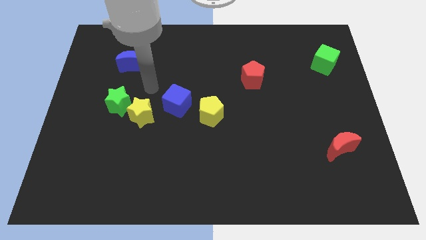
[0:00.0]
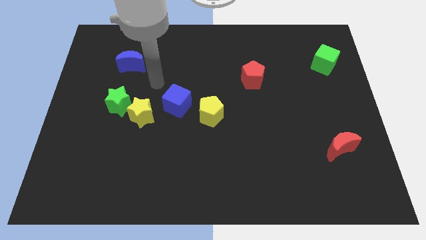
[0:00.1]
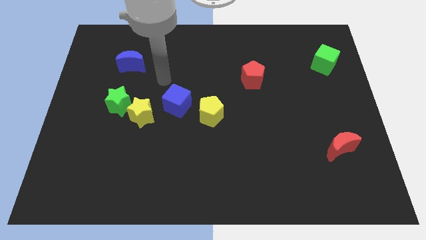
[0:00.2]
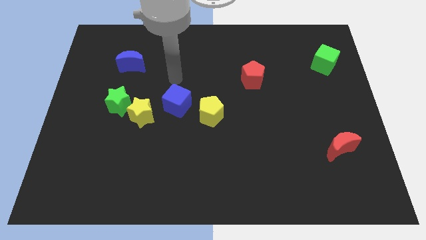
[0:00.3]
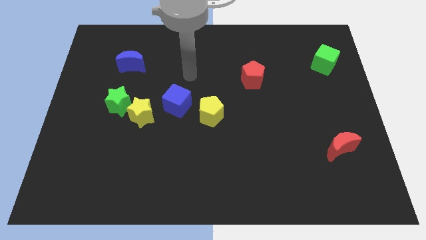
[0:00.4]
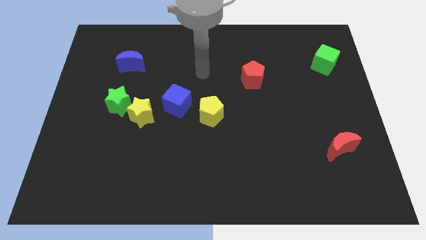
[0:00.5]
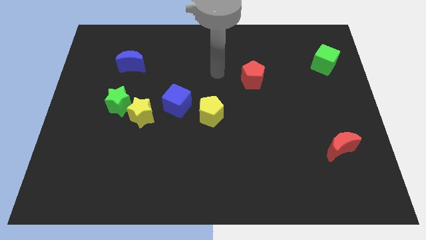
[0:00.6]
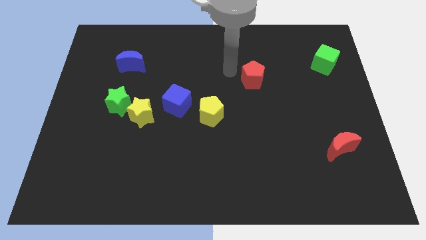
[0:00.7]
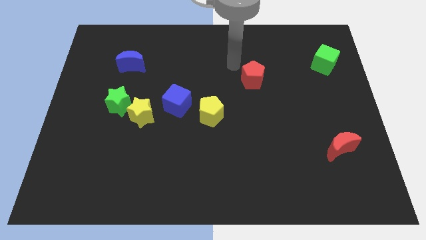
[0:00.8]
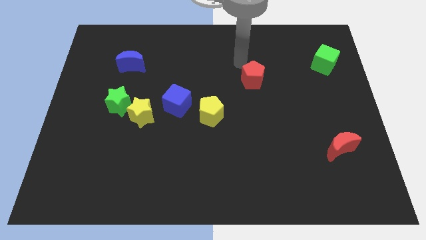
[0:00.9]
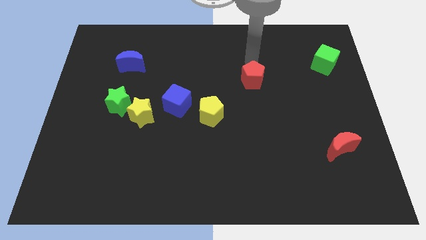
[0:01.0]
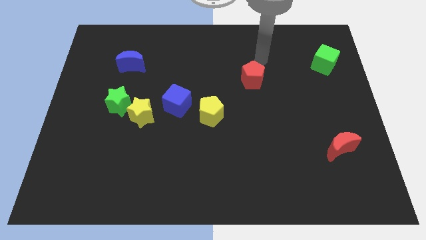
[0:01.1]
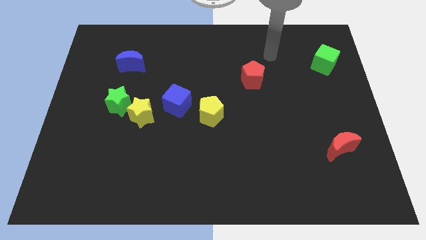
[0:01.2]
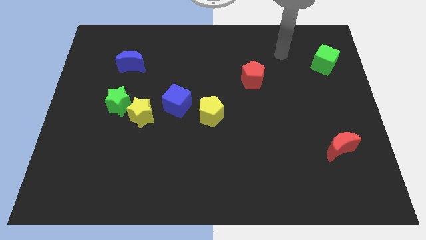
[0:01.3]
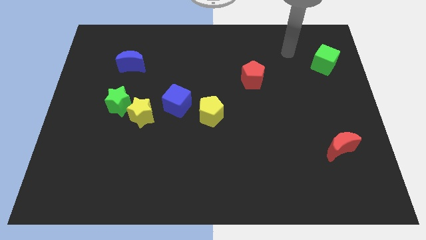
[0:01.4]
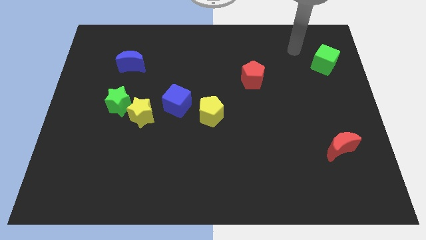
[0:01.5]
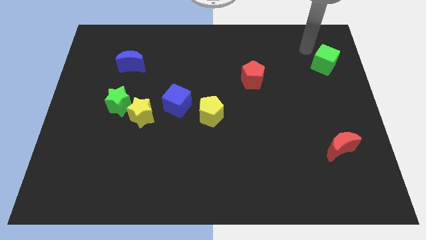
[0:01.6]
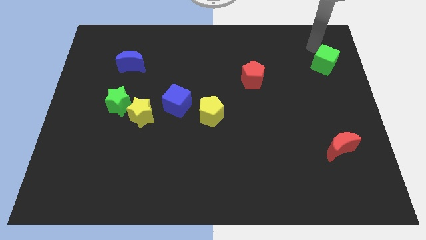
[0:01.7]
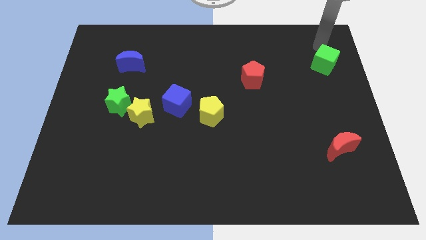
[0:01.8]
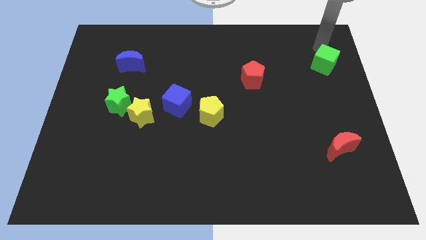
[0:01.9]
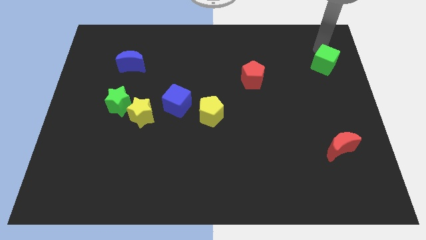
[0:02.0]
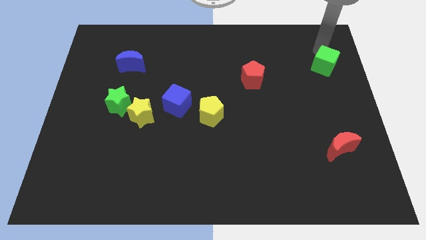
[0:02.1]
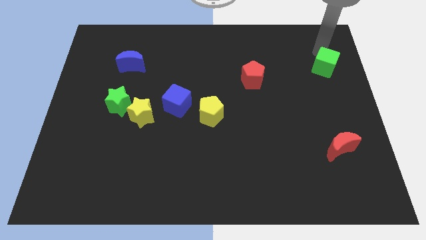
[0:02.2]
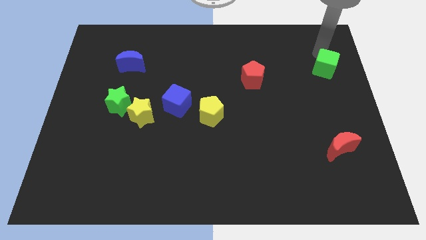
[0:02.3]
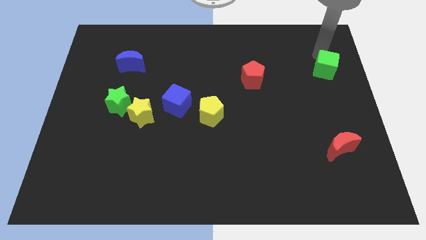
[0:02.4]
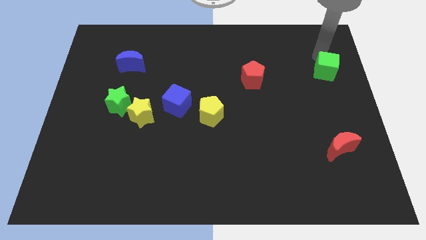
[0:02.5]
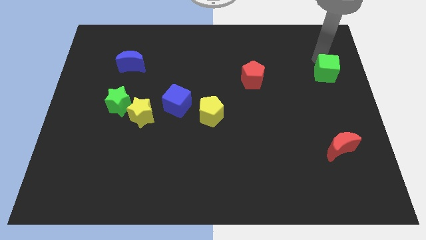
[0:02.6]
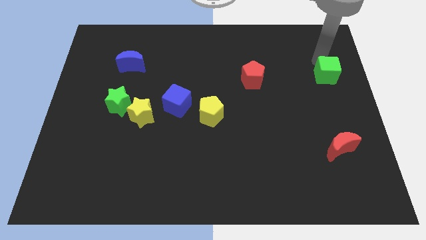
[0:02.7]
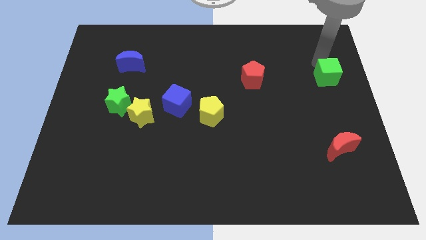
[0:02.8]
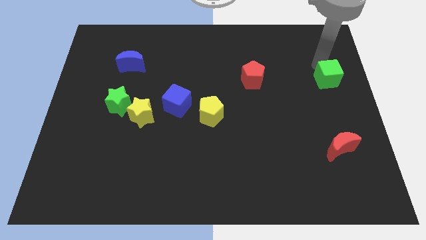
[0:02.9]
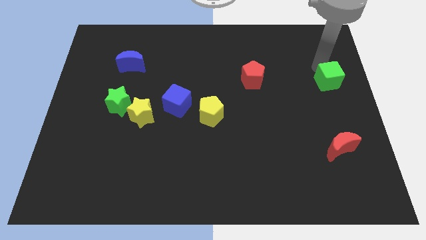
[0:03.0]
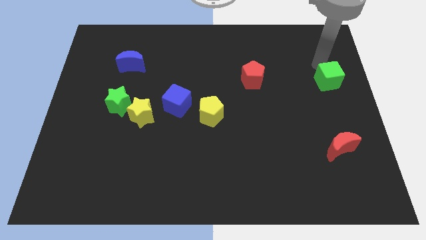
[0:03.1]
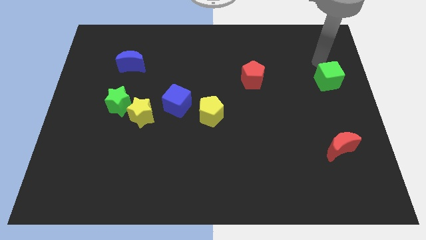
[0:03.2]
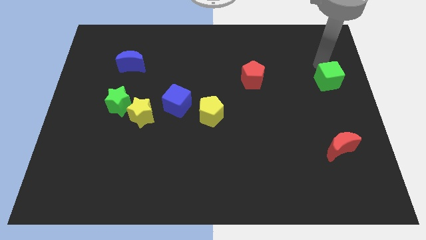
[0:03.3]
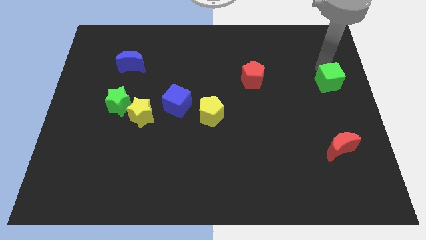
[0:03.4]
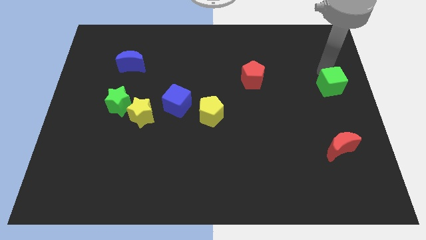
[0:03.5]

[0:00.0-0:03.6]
slightly slide the green cube down

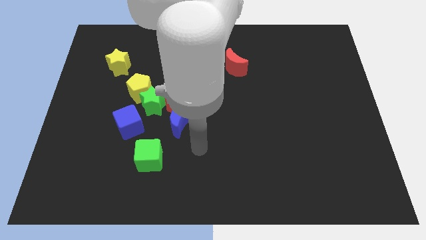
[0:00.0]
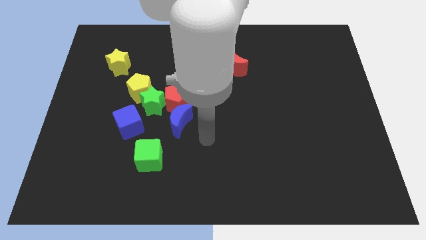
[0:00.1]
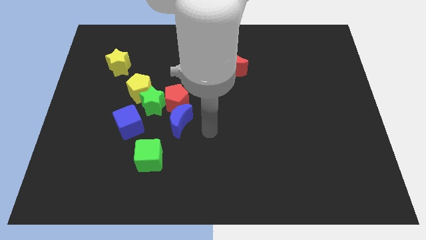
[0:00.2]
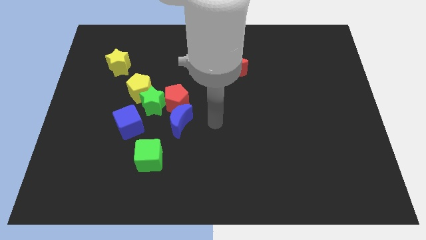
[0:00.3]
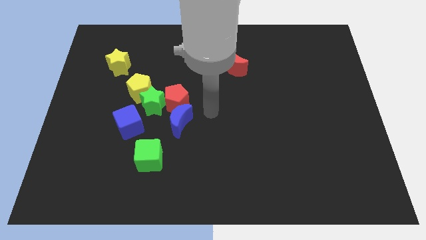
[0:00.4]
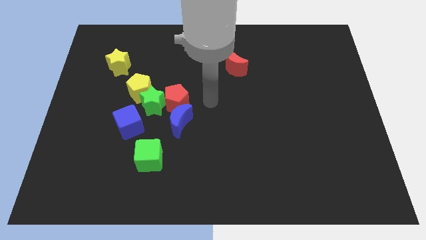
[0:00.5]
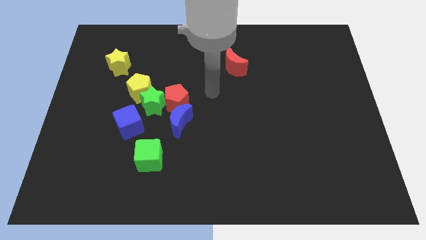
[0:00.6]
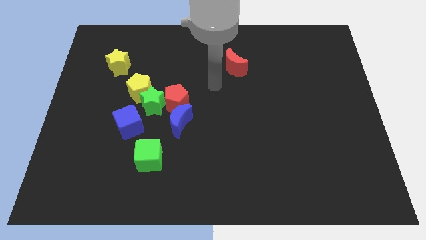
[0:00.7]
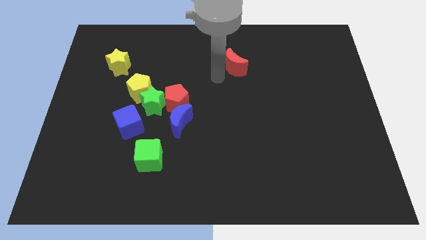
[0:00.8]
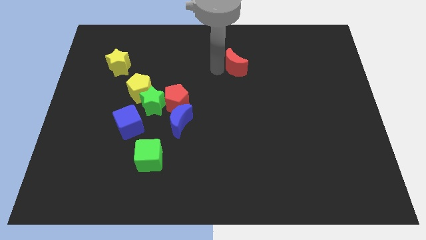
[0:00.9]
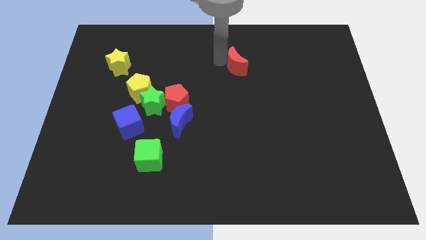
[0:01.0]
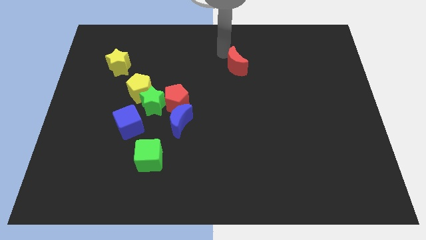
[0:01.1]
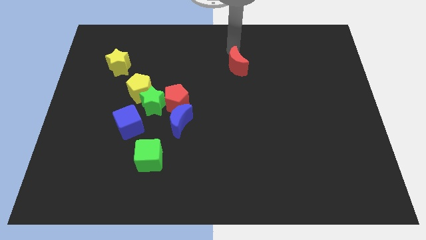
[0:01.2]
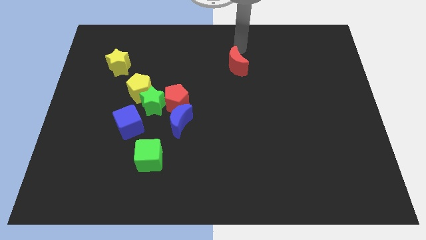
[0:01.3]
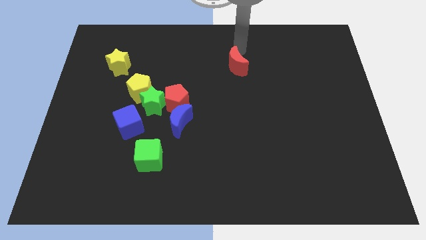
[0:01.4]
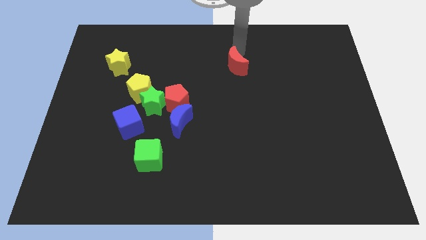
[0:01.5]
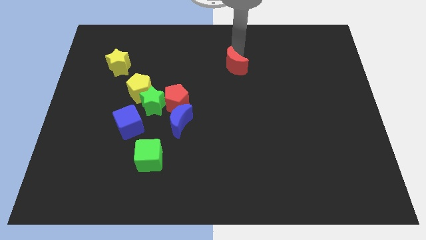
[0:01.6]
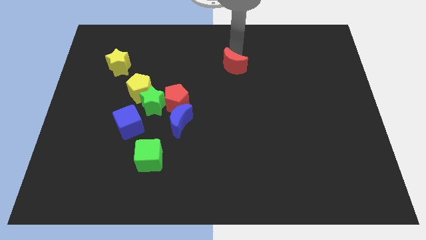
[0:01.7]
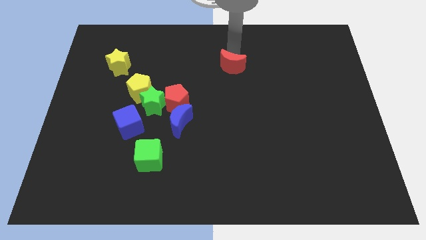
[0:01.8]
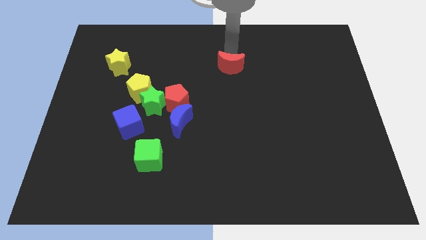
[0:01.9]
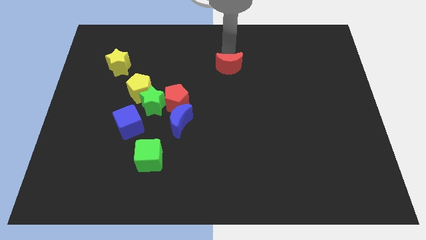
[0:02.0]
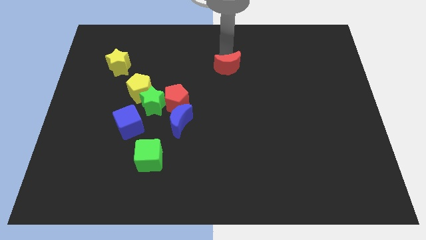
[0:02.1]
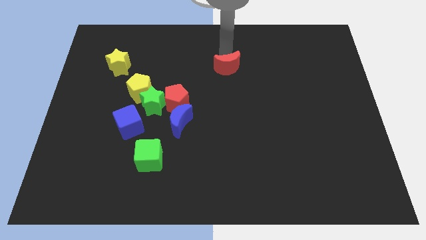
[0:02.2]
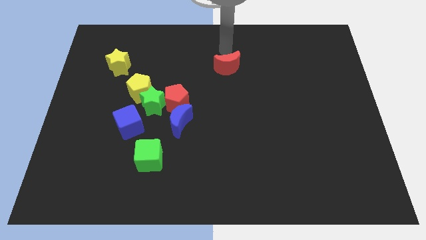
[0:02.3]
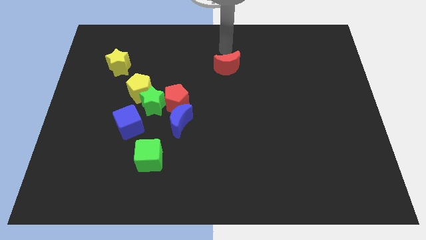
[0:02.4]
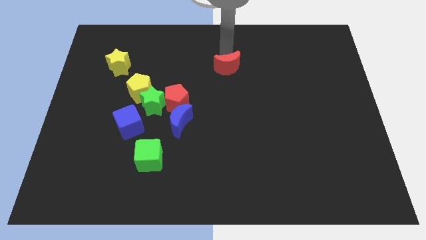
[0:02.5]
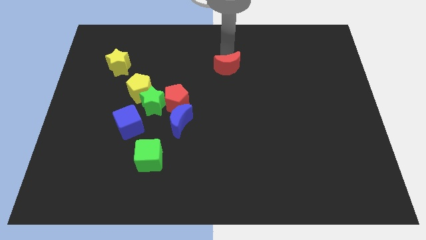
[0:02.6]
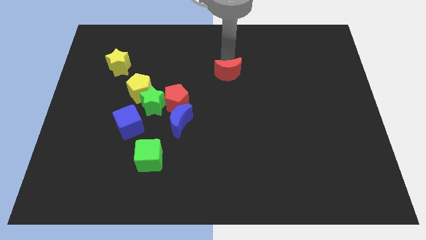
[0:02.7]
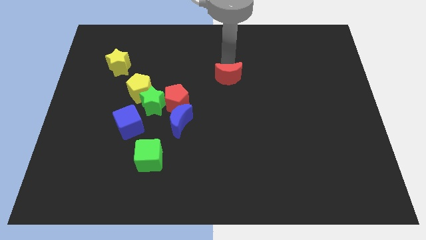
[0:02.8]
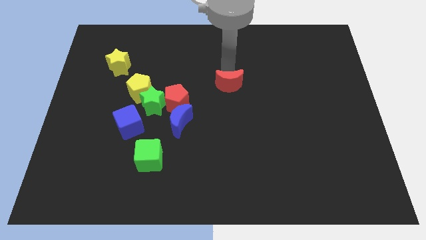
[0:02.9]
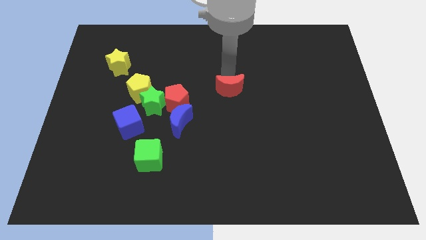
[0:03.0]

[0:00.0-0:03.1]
slide the red moon down slightly

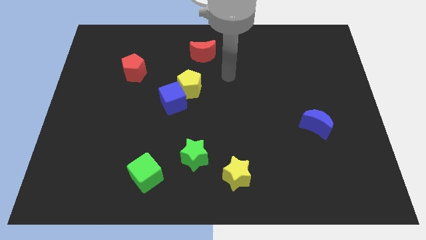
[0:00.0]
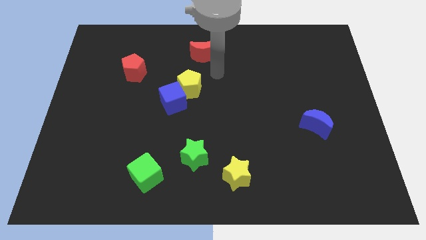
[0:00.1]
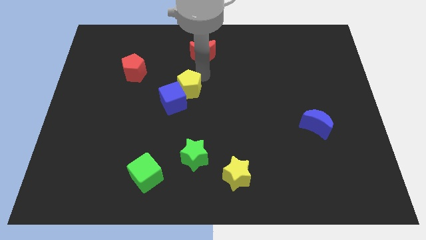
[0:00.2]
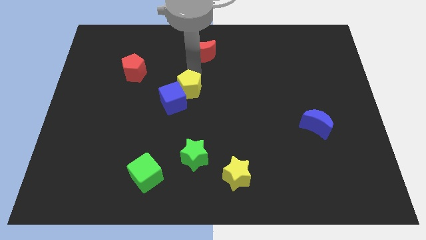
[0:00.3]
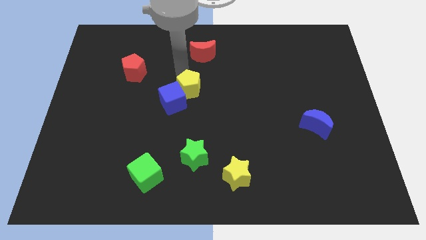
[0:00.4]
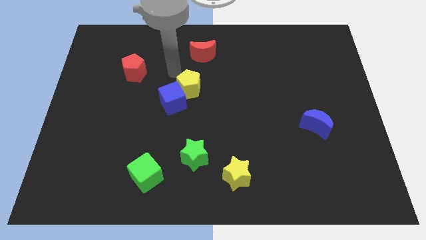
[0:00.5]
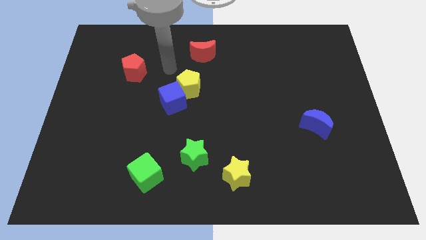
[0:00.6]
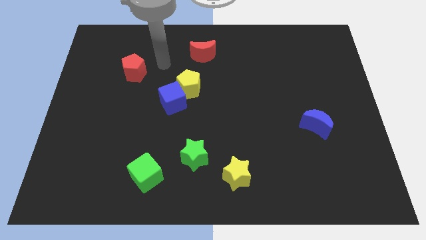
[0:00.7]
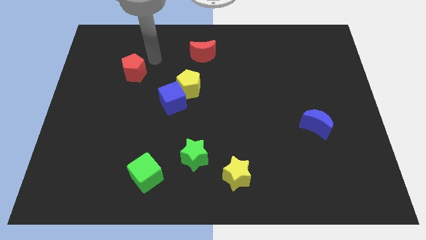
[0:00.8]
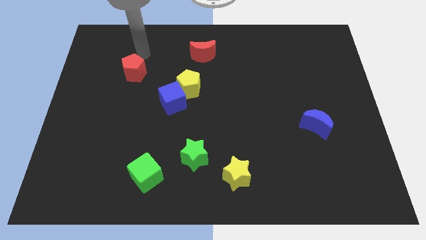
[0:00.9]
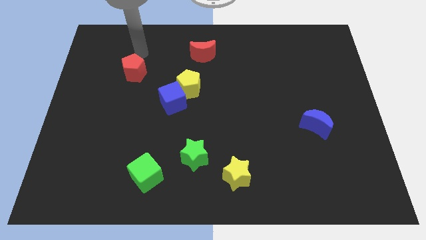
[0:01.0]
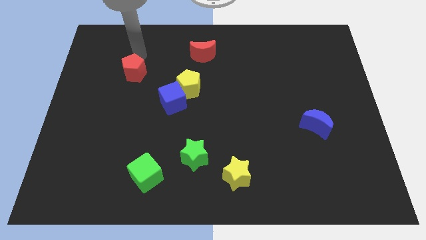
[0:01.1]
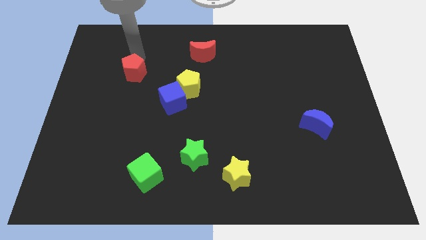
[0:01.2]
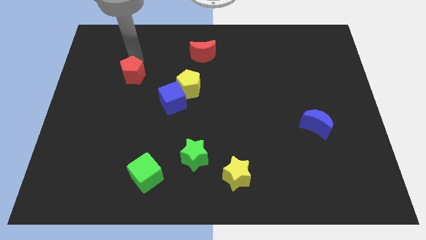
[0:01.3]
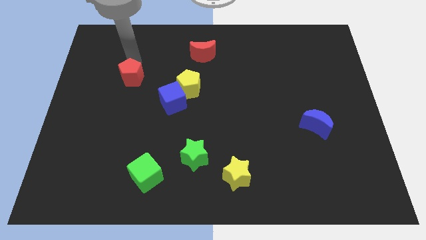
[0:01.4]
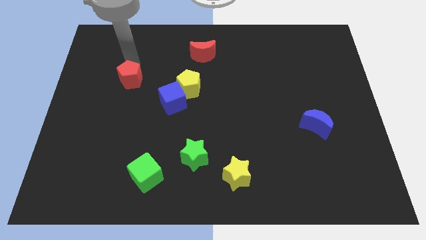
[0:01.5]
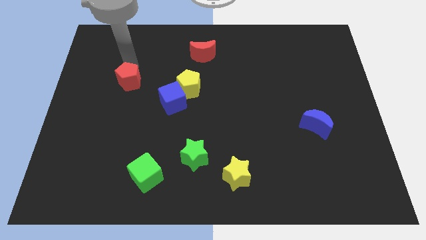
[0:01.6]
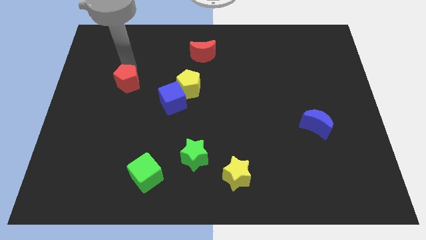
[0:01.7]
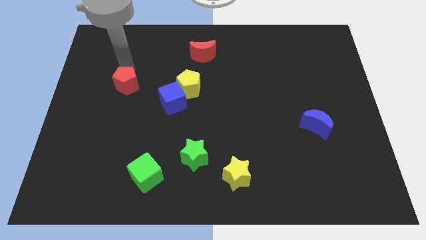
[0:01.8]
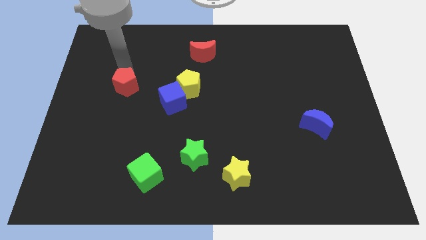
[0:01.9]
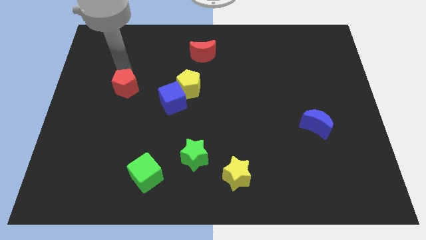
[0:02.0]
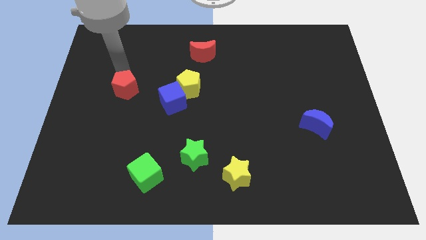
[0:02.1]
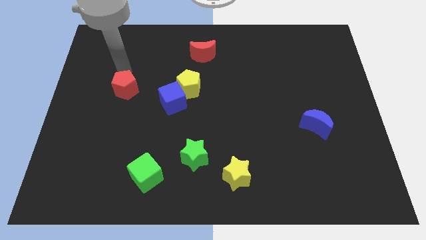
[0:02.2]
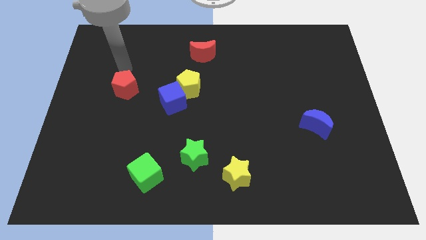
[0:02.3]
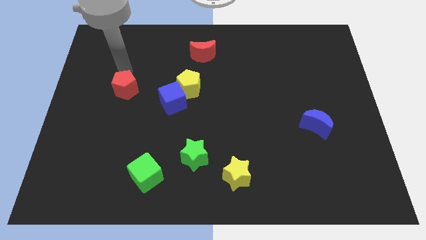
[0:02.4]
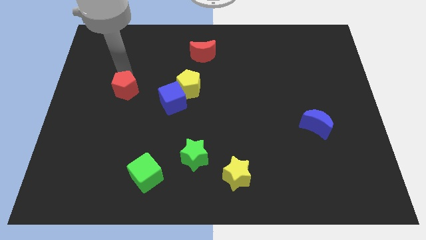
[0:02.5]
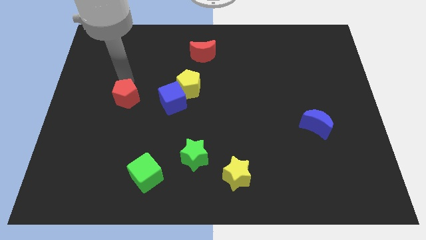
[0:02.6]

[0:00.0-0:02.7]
move the red pentagon down somewhat
